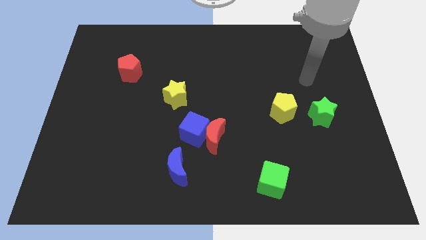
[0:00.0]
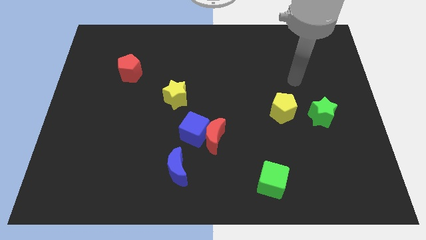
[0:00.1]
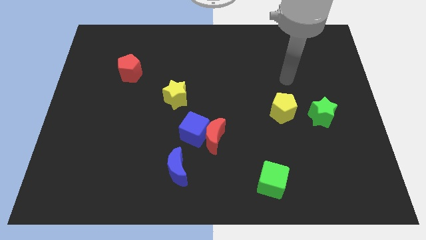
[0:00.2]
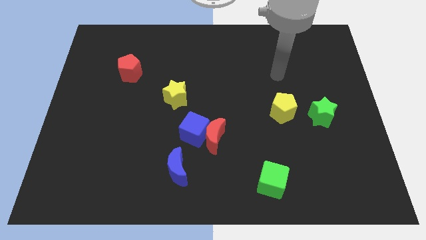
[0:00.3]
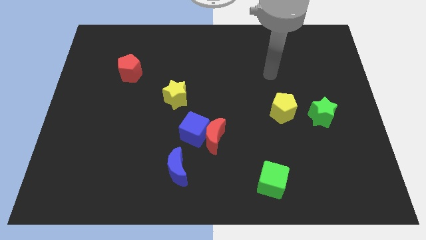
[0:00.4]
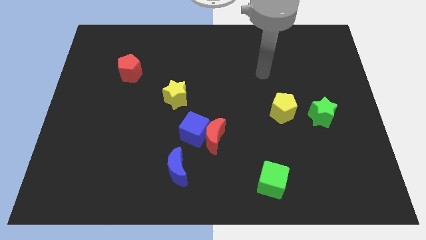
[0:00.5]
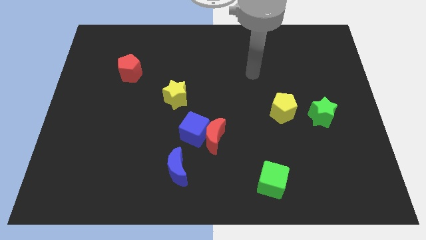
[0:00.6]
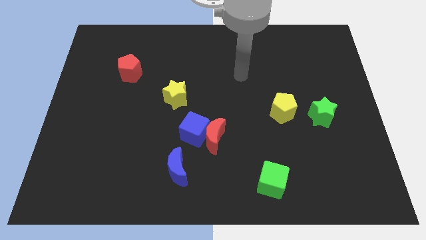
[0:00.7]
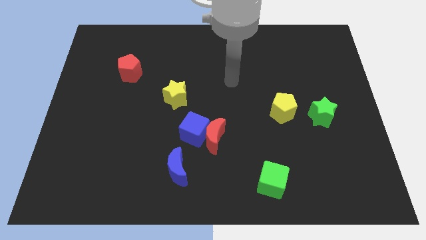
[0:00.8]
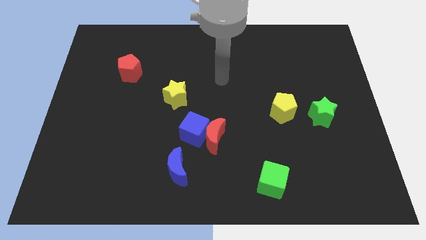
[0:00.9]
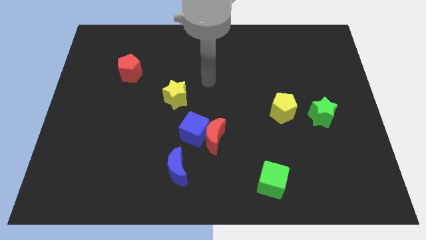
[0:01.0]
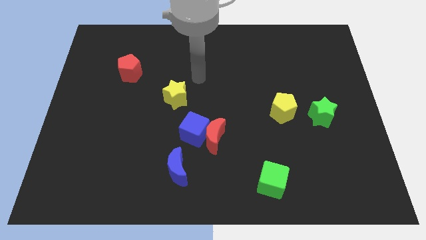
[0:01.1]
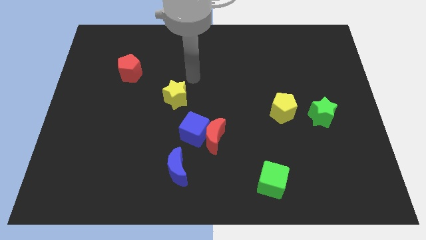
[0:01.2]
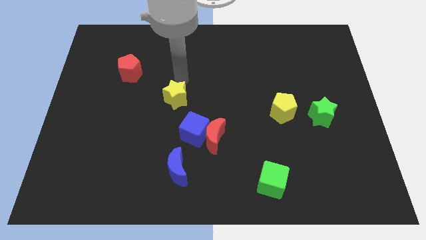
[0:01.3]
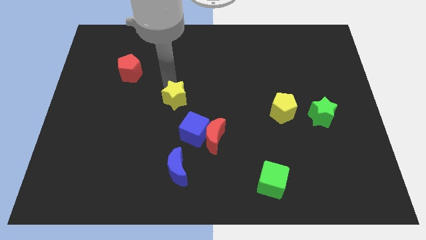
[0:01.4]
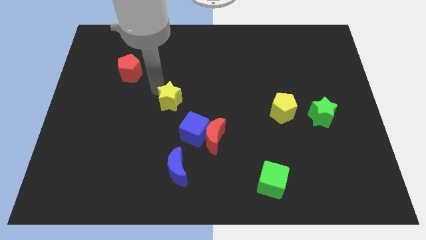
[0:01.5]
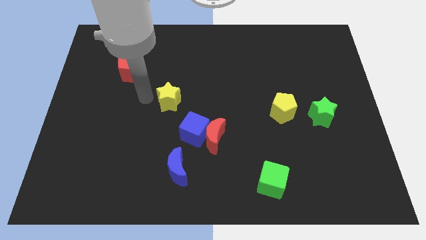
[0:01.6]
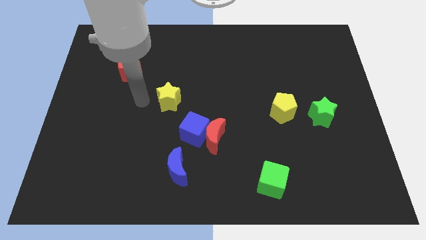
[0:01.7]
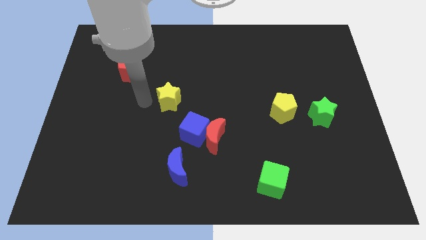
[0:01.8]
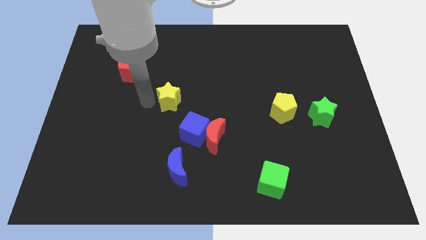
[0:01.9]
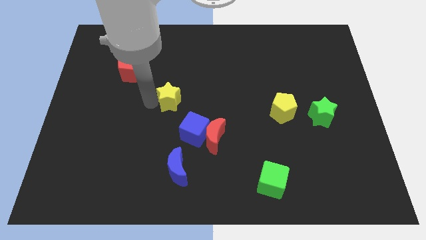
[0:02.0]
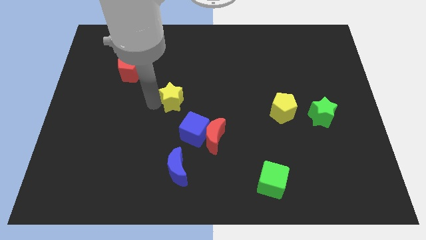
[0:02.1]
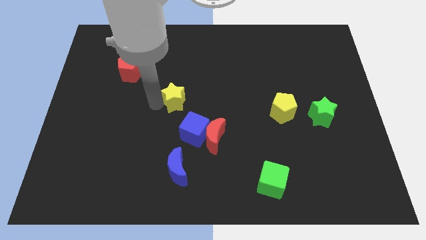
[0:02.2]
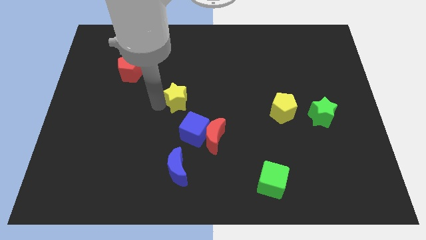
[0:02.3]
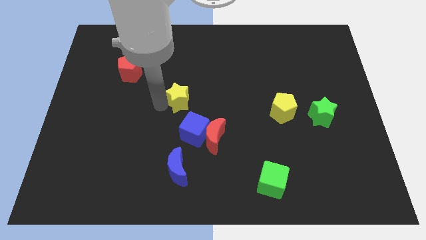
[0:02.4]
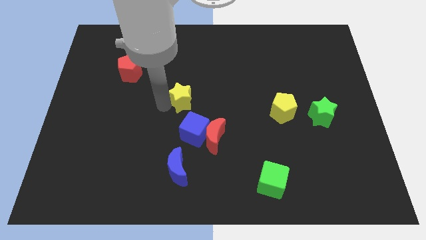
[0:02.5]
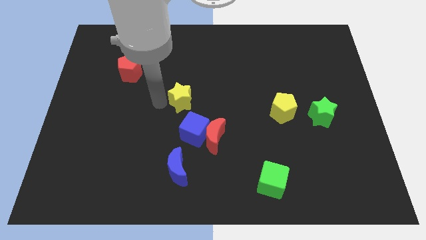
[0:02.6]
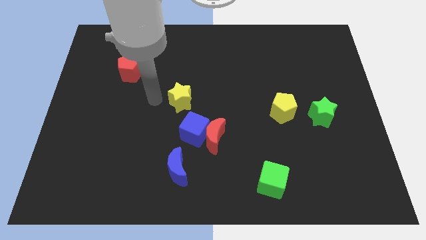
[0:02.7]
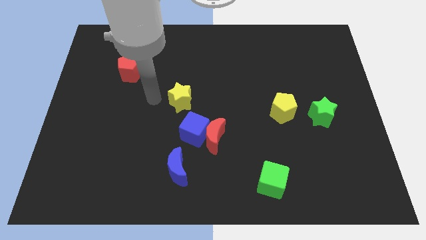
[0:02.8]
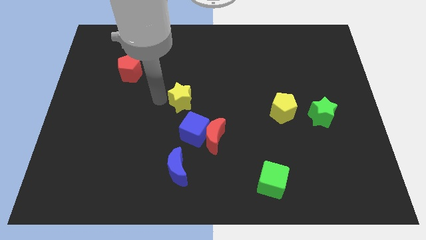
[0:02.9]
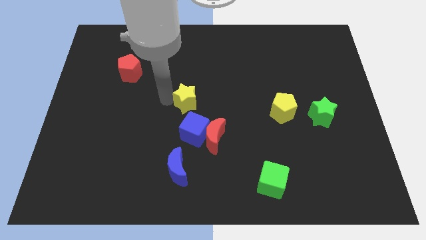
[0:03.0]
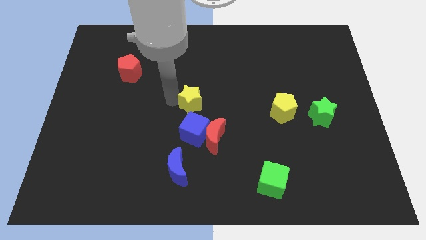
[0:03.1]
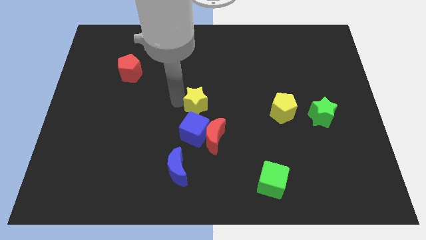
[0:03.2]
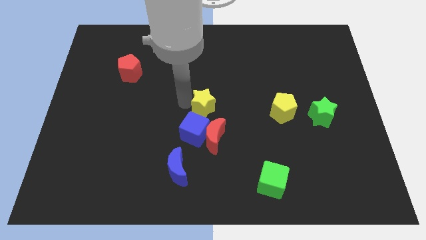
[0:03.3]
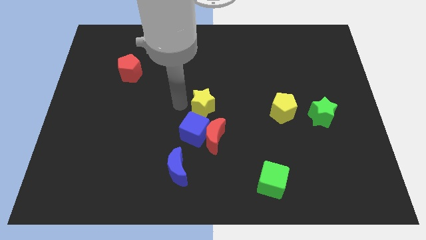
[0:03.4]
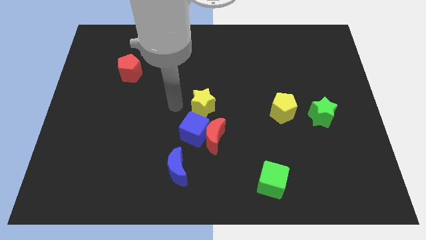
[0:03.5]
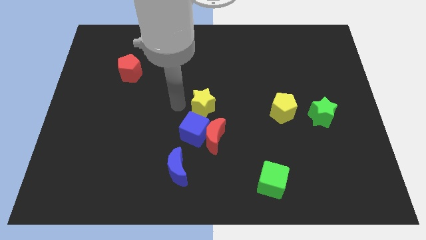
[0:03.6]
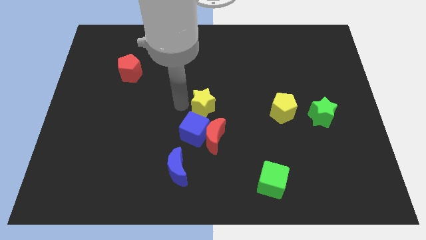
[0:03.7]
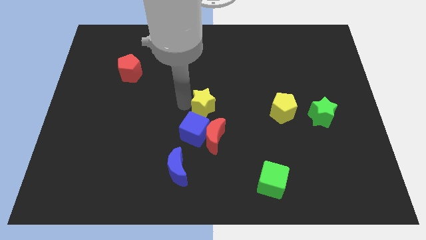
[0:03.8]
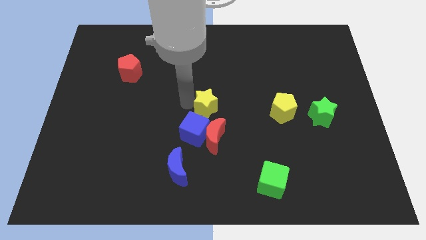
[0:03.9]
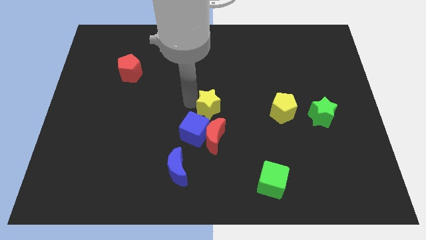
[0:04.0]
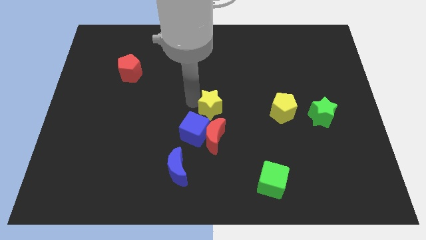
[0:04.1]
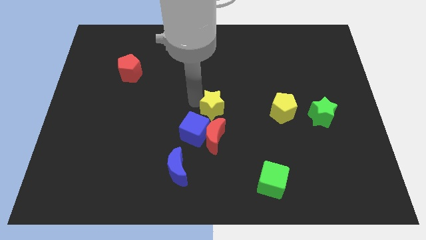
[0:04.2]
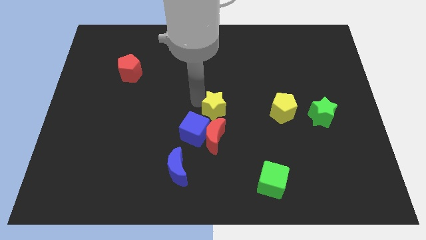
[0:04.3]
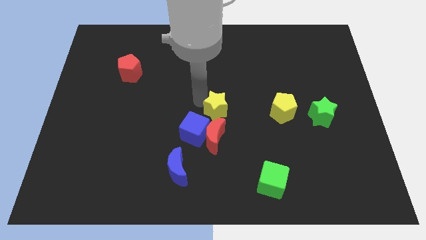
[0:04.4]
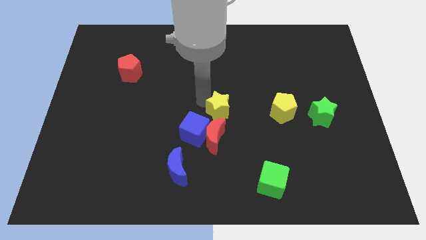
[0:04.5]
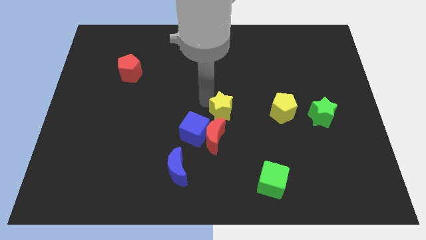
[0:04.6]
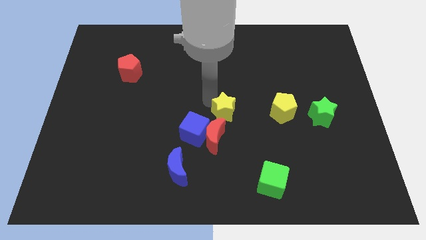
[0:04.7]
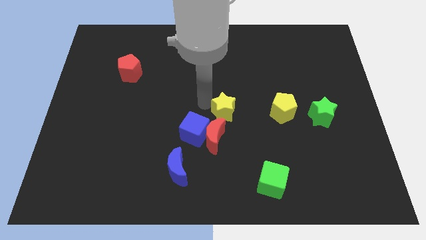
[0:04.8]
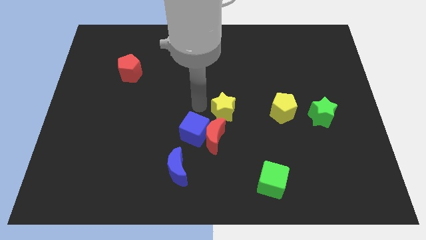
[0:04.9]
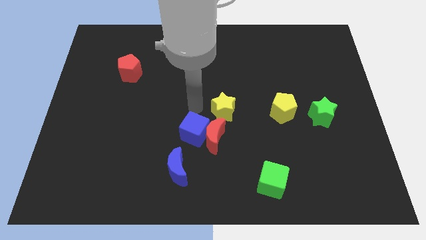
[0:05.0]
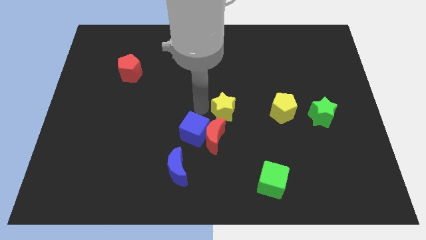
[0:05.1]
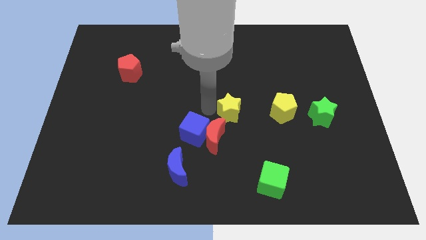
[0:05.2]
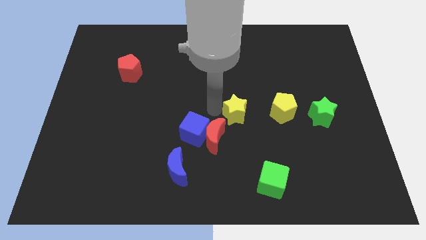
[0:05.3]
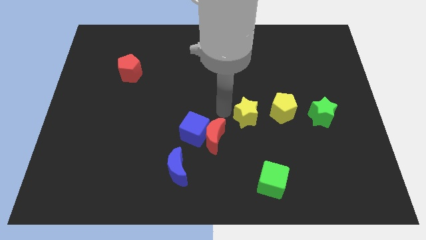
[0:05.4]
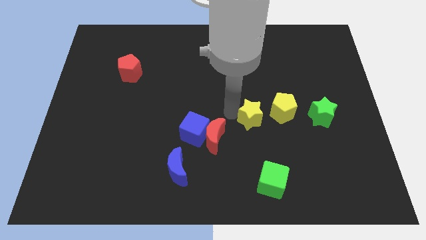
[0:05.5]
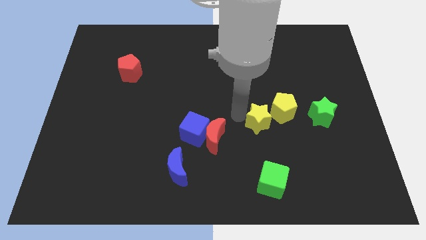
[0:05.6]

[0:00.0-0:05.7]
slide the yellow star to the left of the green star

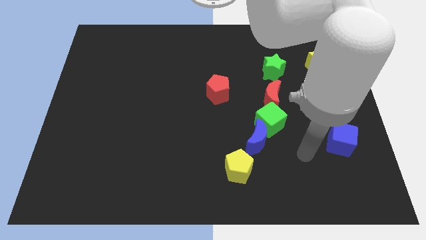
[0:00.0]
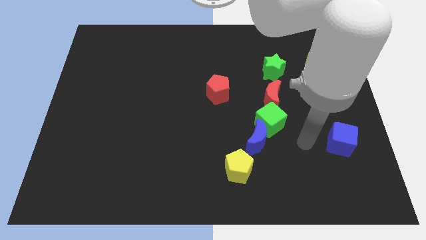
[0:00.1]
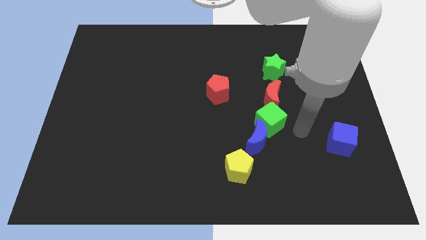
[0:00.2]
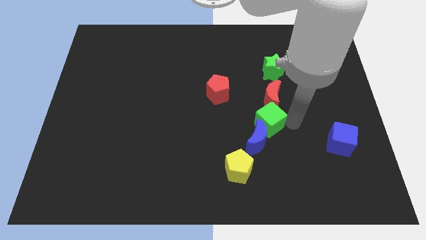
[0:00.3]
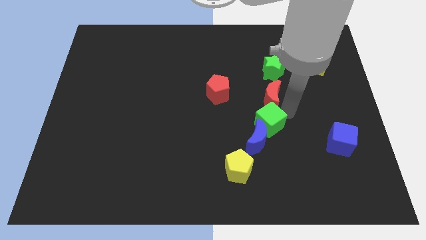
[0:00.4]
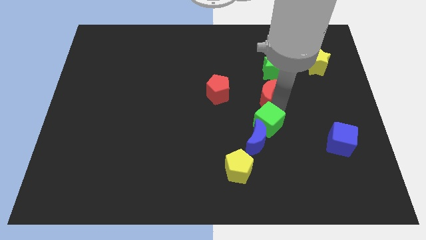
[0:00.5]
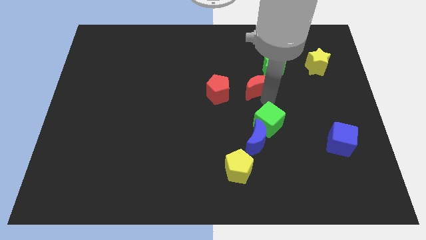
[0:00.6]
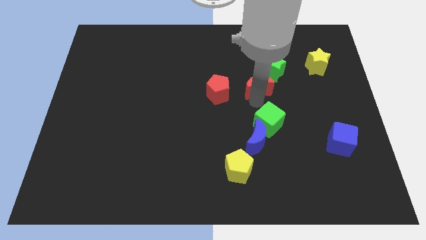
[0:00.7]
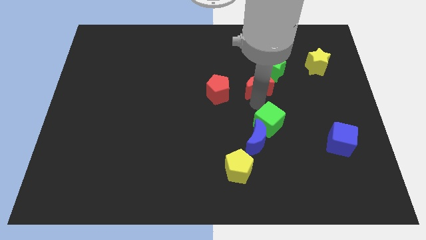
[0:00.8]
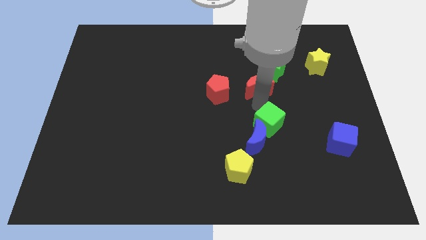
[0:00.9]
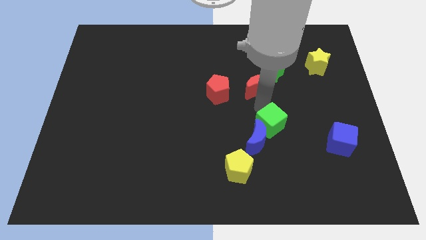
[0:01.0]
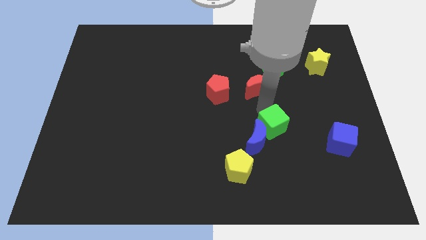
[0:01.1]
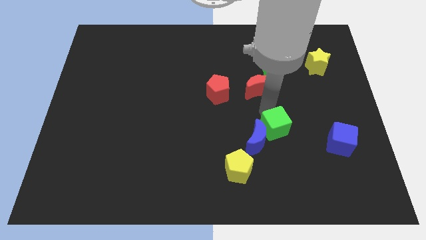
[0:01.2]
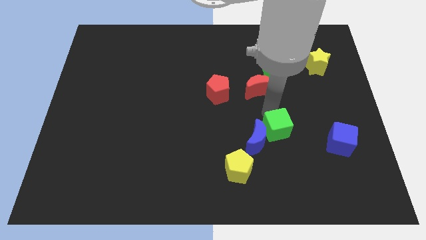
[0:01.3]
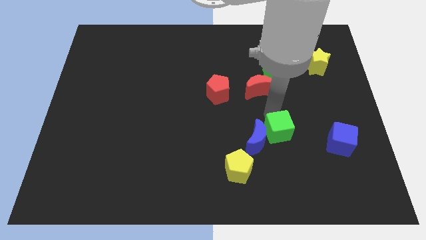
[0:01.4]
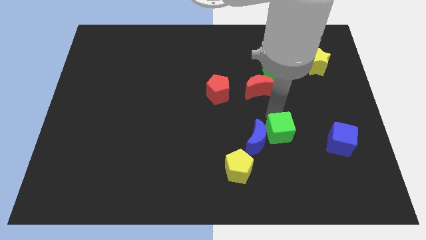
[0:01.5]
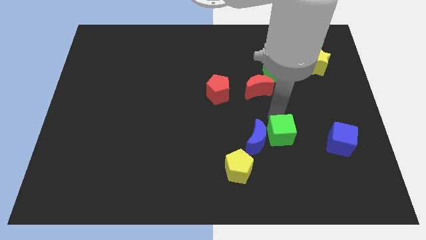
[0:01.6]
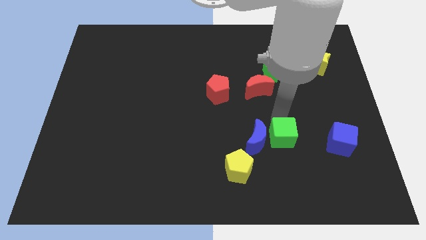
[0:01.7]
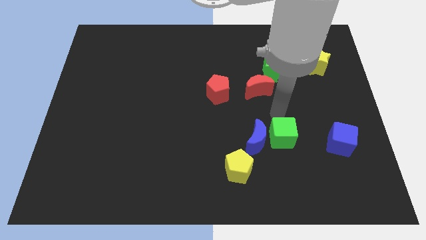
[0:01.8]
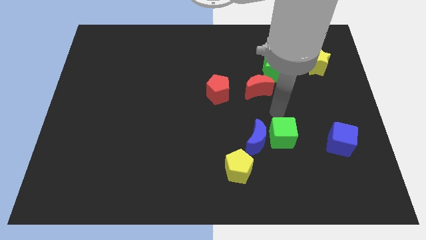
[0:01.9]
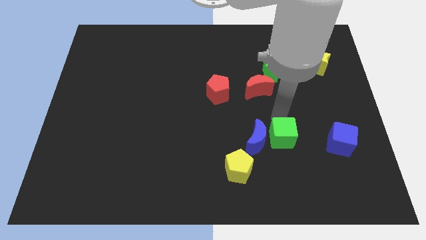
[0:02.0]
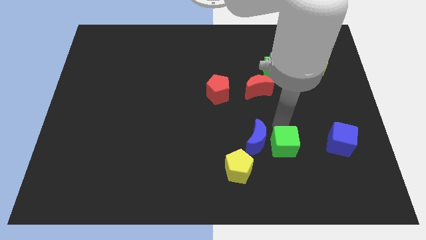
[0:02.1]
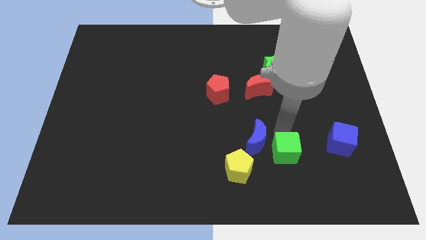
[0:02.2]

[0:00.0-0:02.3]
put the green cube just right of the yellow pentagon
